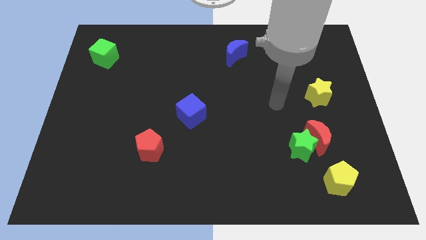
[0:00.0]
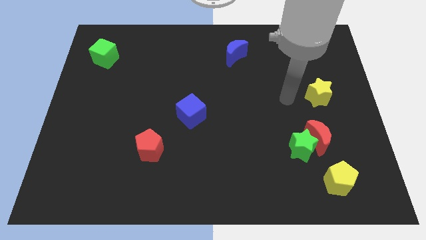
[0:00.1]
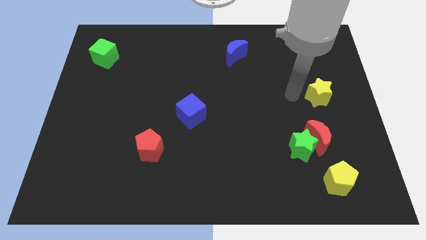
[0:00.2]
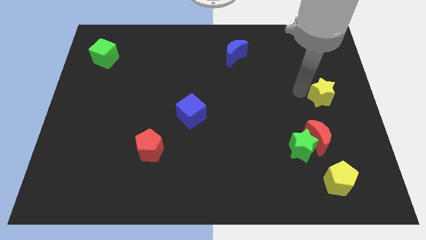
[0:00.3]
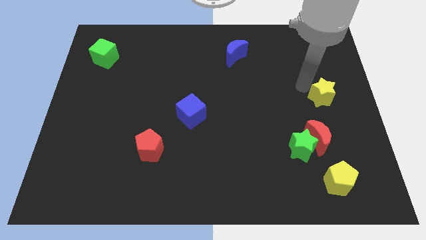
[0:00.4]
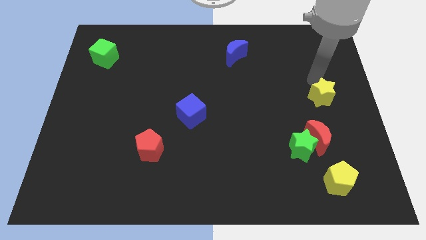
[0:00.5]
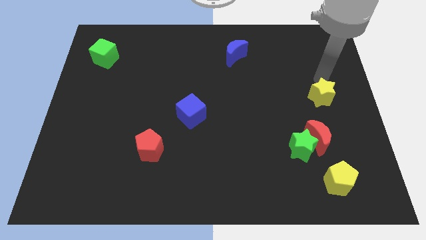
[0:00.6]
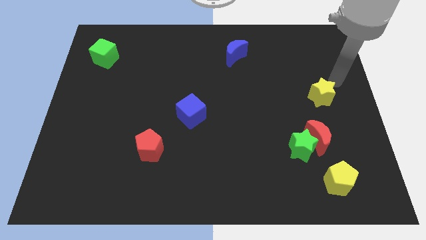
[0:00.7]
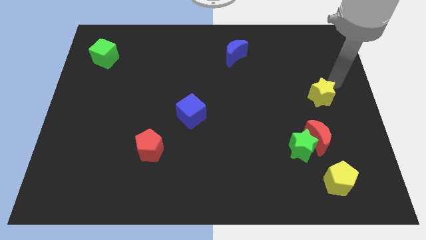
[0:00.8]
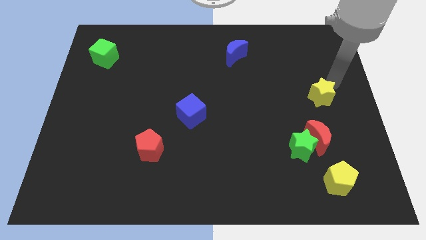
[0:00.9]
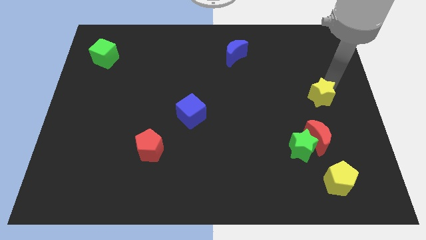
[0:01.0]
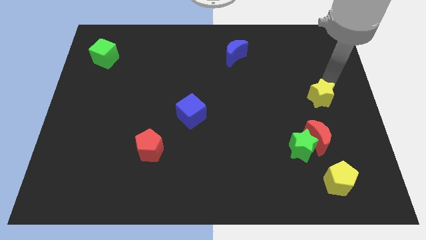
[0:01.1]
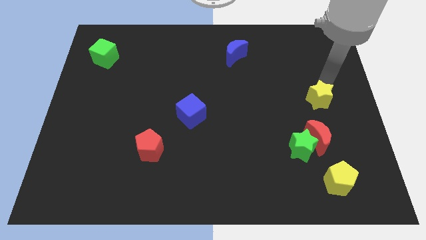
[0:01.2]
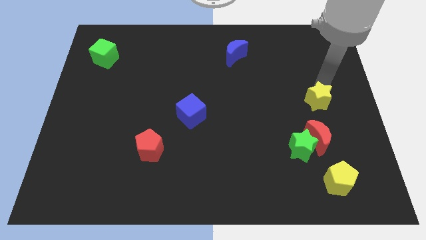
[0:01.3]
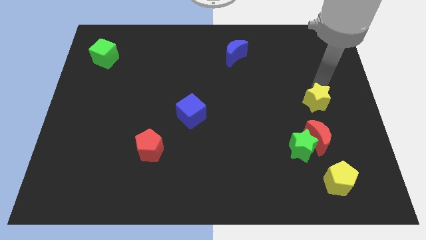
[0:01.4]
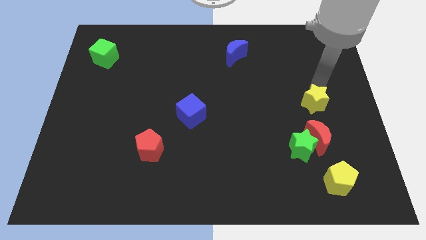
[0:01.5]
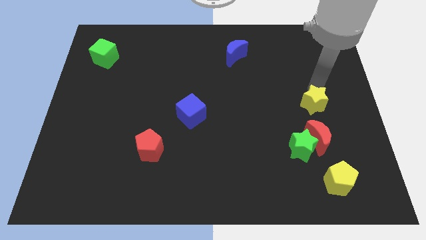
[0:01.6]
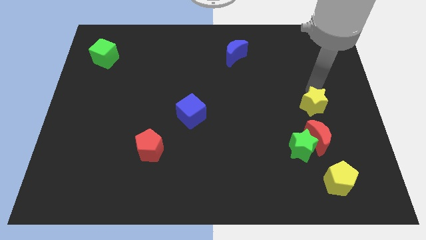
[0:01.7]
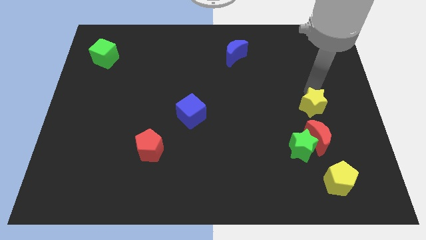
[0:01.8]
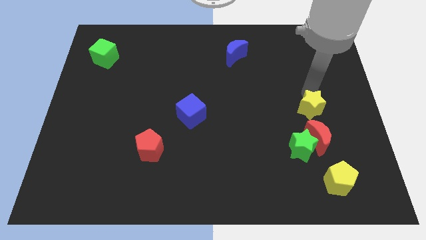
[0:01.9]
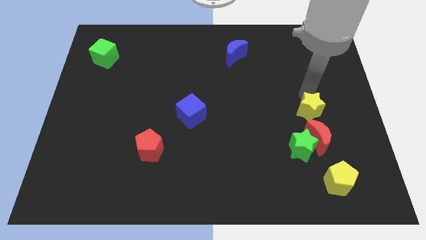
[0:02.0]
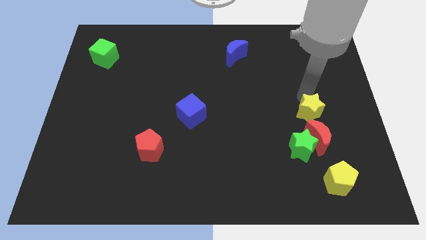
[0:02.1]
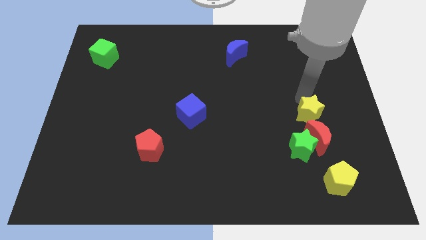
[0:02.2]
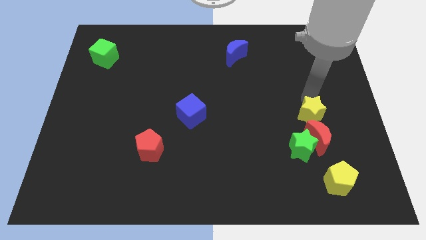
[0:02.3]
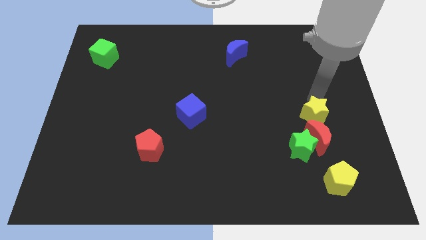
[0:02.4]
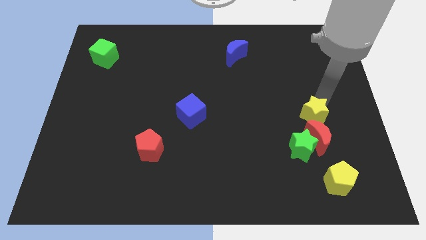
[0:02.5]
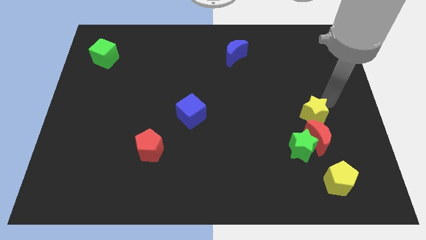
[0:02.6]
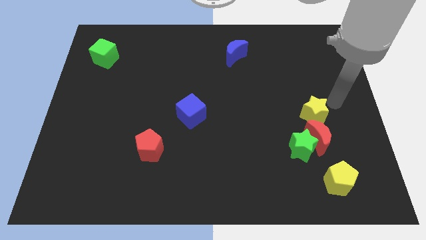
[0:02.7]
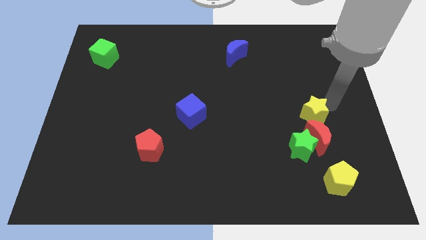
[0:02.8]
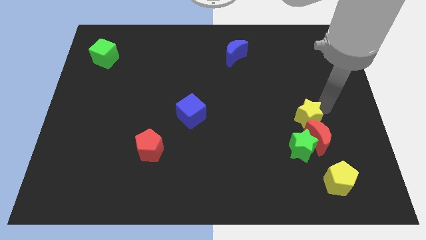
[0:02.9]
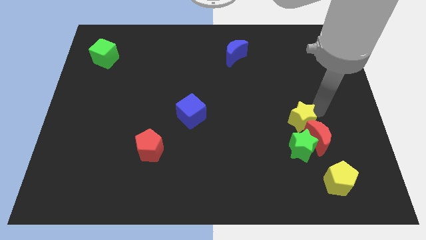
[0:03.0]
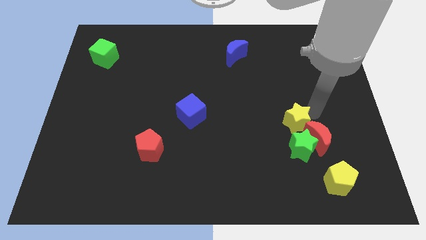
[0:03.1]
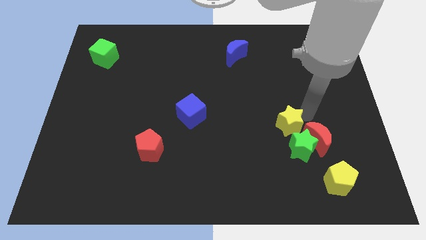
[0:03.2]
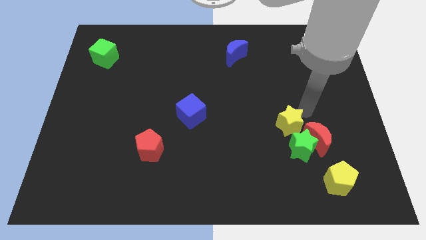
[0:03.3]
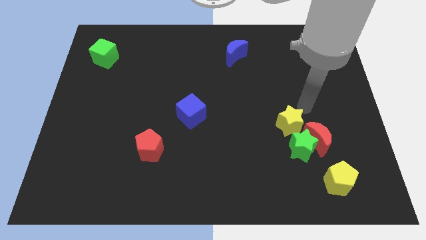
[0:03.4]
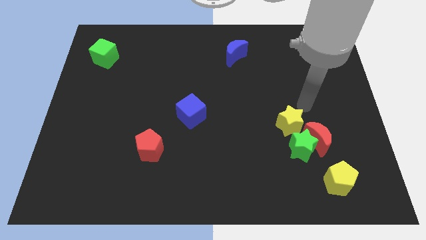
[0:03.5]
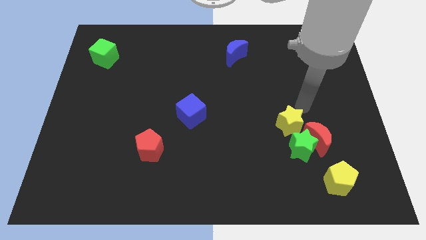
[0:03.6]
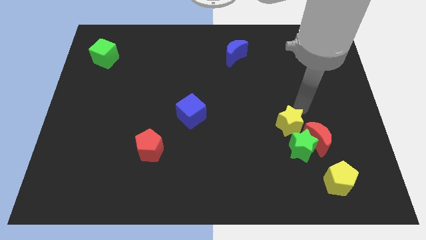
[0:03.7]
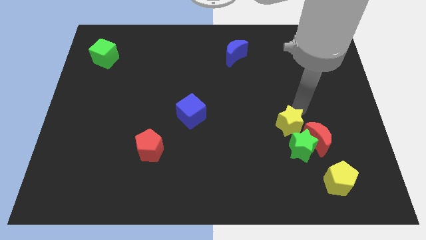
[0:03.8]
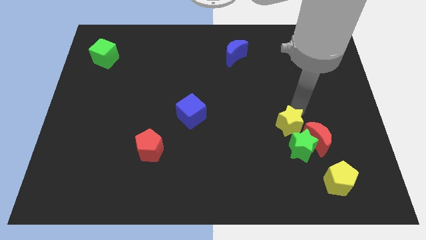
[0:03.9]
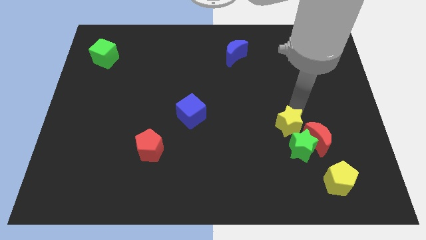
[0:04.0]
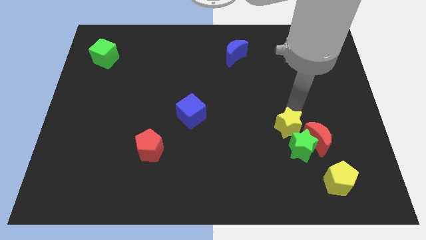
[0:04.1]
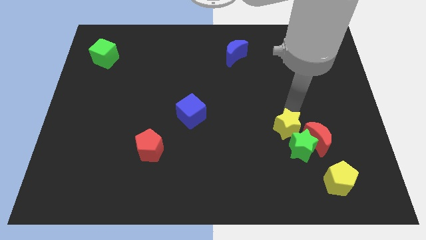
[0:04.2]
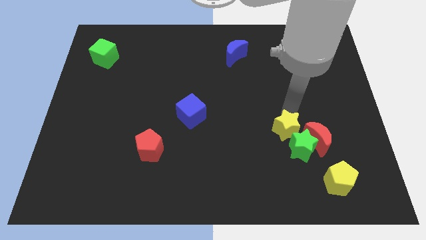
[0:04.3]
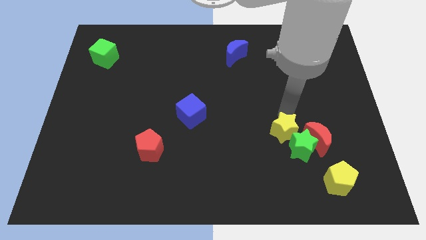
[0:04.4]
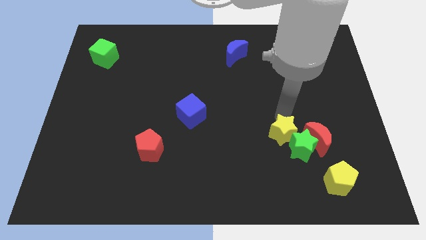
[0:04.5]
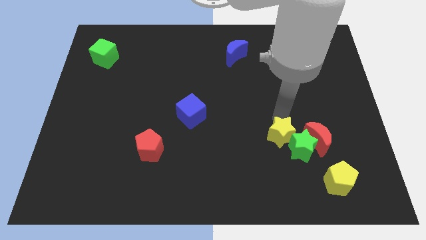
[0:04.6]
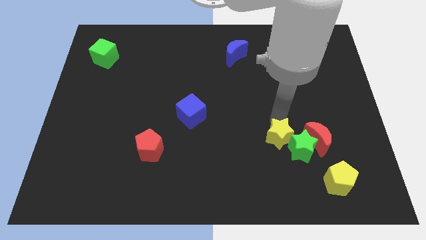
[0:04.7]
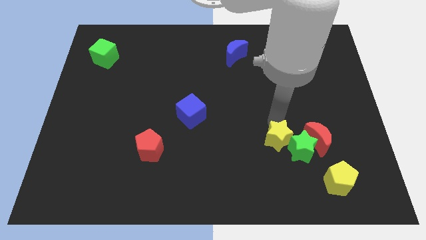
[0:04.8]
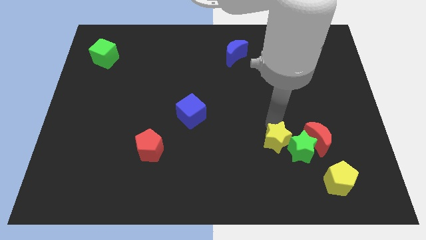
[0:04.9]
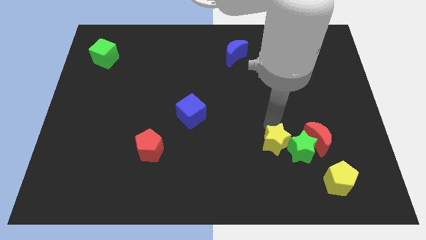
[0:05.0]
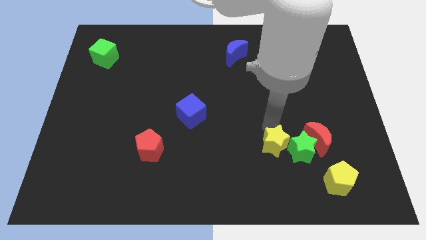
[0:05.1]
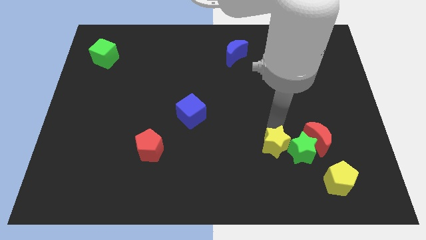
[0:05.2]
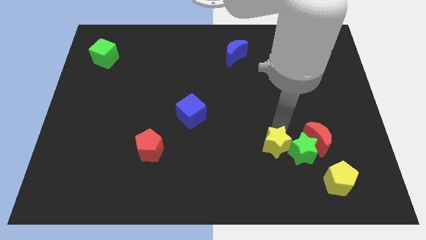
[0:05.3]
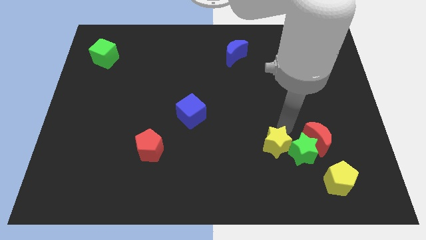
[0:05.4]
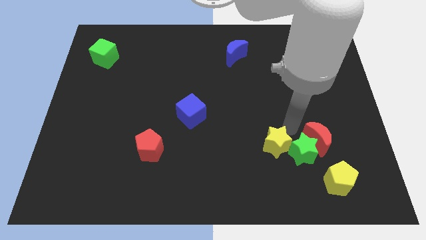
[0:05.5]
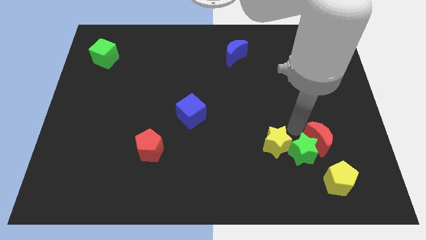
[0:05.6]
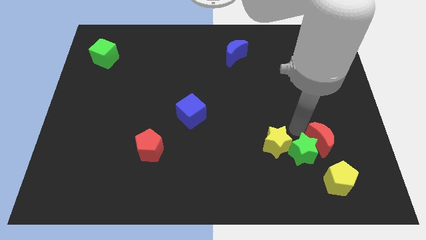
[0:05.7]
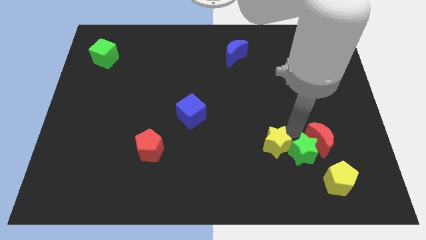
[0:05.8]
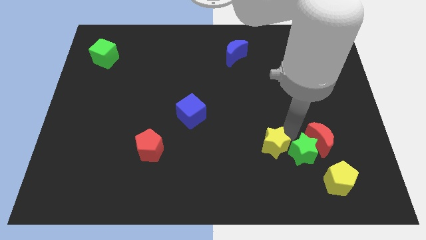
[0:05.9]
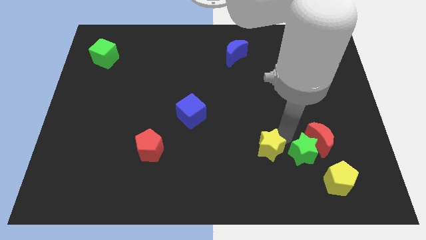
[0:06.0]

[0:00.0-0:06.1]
move the yellow star downwards and left diagonally

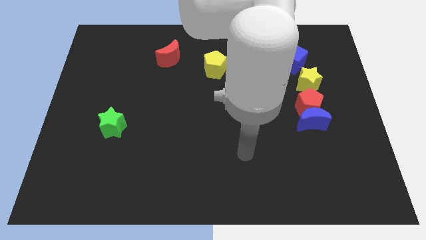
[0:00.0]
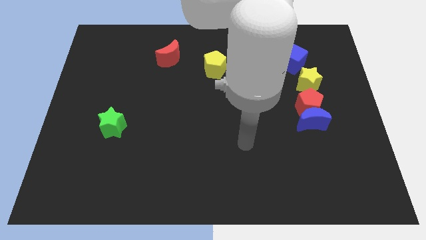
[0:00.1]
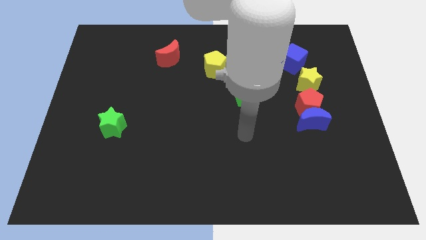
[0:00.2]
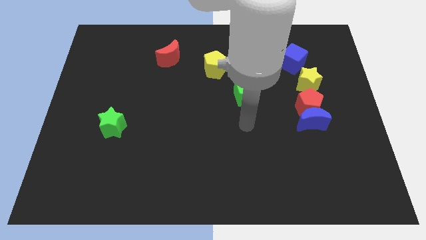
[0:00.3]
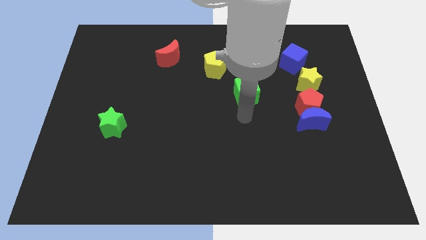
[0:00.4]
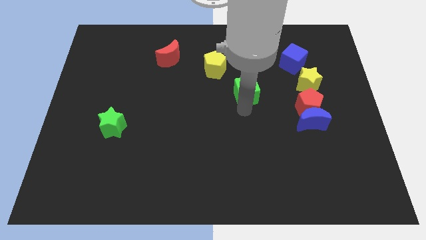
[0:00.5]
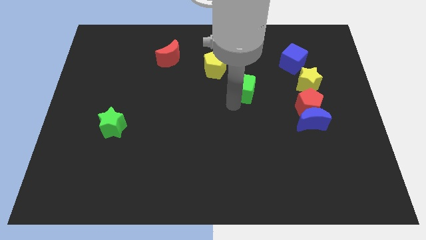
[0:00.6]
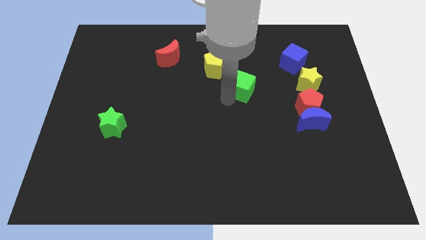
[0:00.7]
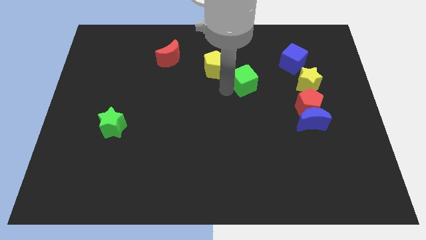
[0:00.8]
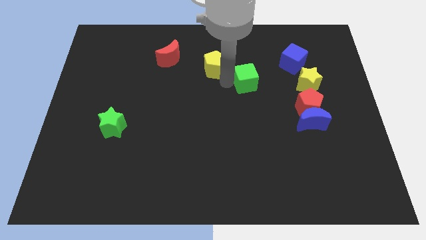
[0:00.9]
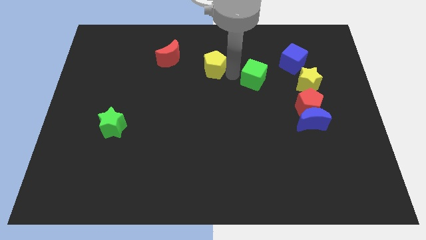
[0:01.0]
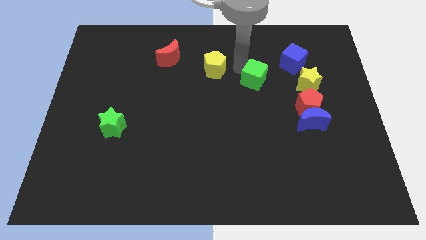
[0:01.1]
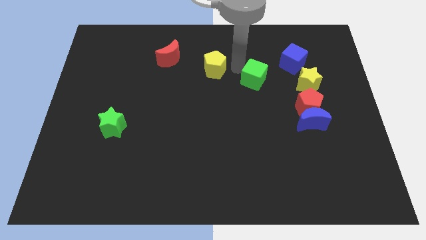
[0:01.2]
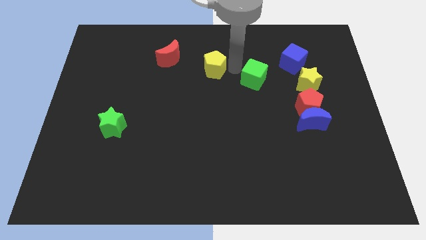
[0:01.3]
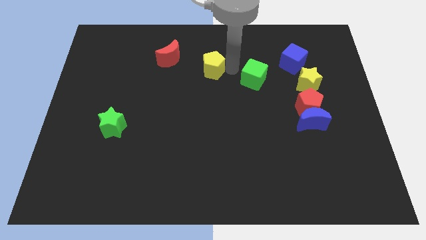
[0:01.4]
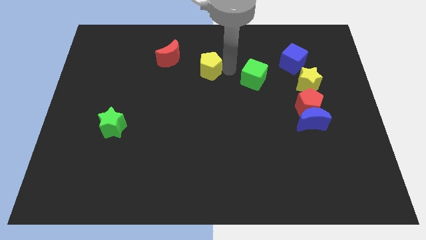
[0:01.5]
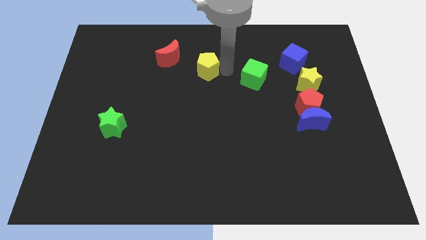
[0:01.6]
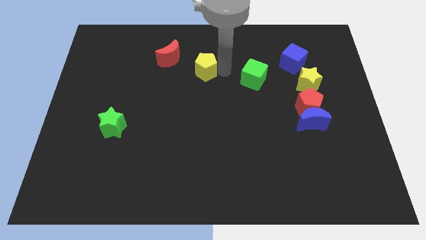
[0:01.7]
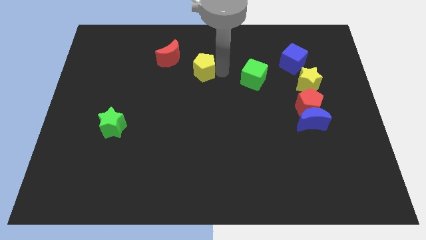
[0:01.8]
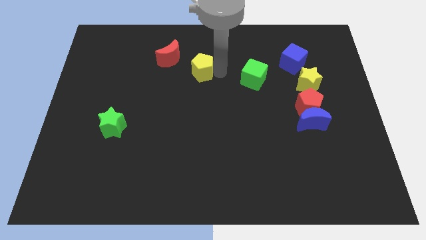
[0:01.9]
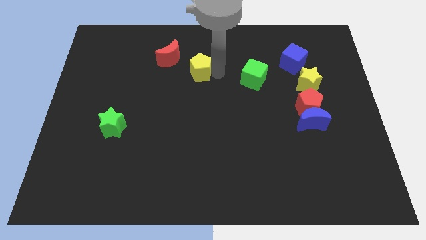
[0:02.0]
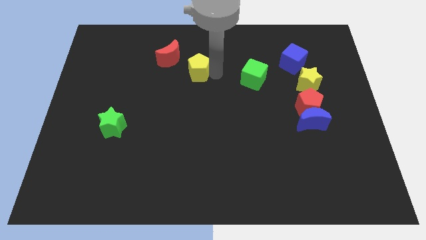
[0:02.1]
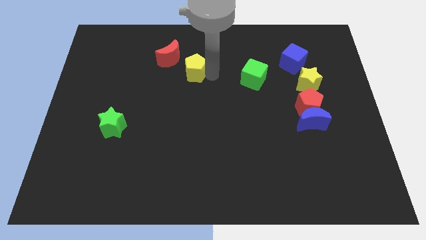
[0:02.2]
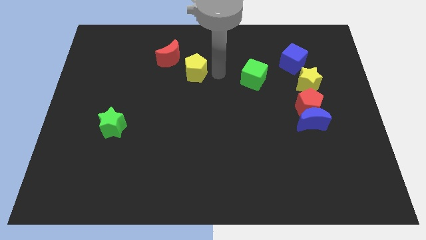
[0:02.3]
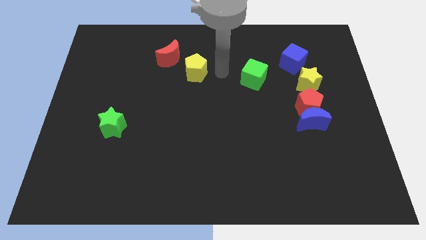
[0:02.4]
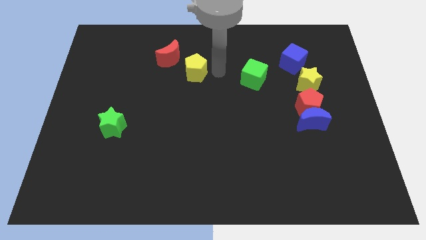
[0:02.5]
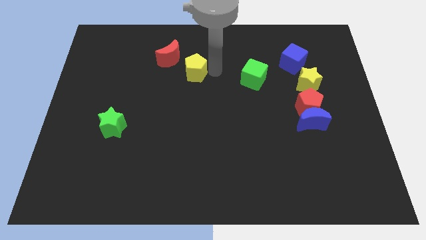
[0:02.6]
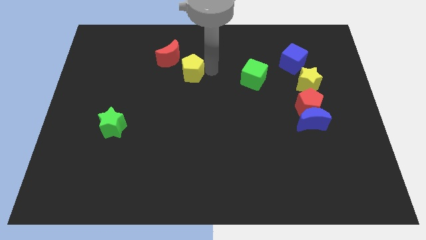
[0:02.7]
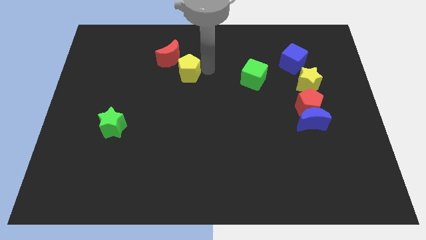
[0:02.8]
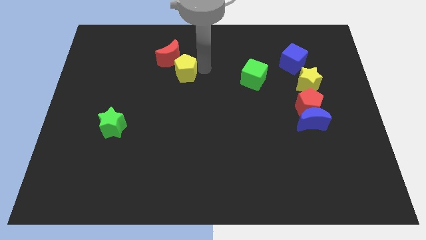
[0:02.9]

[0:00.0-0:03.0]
move the yellow pentagon left slightly
